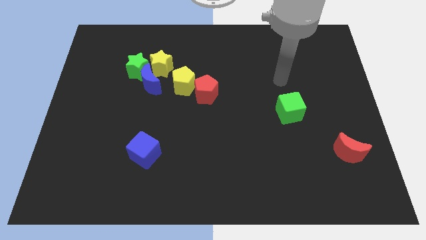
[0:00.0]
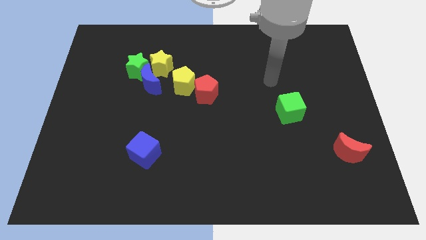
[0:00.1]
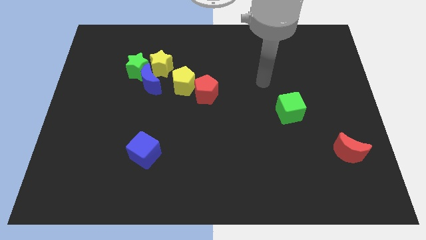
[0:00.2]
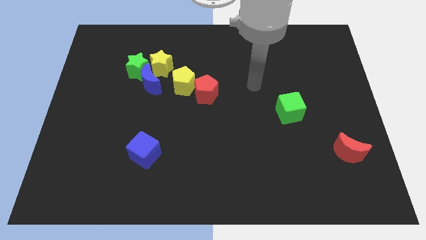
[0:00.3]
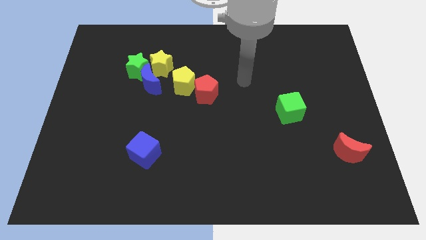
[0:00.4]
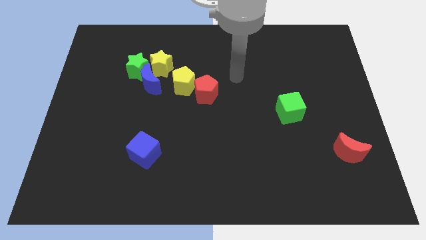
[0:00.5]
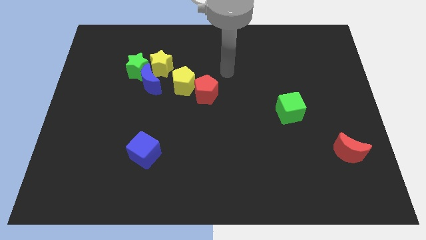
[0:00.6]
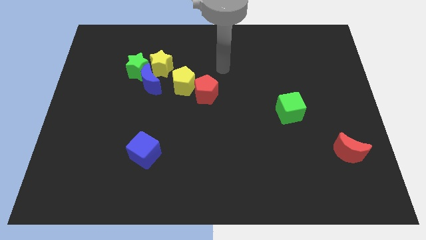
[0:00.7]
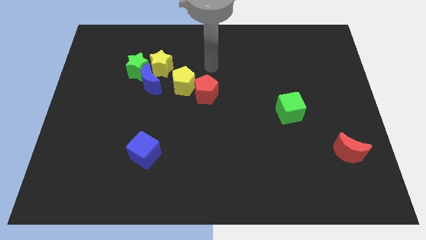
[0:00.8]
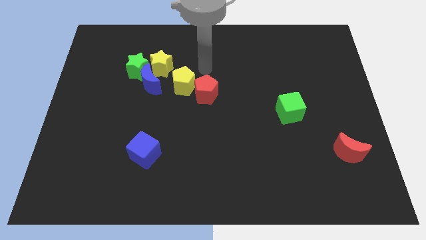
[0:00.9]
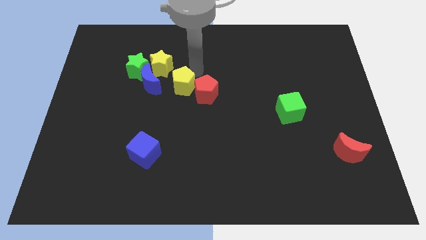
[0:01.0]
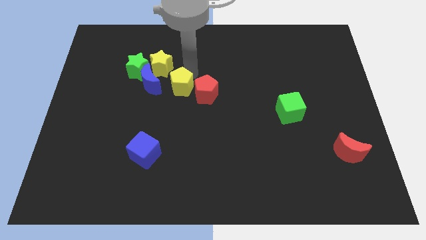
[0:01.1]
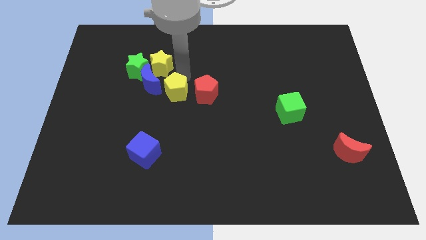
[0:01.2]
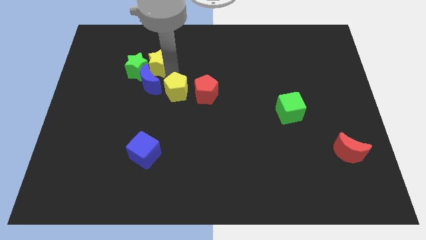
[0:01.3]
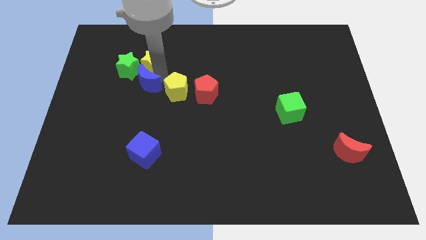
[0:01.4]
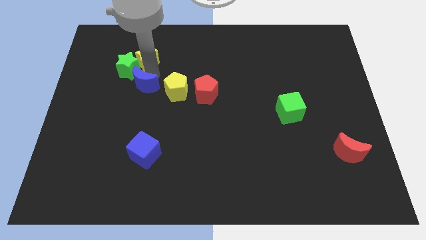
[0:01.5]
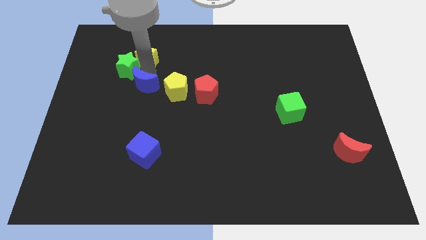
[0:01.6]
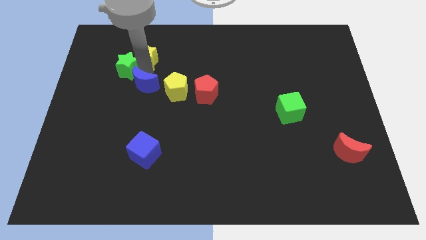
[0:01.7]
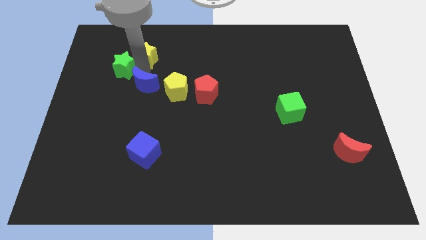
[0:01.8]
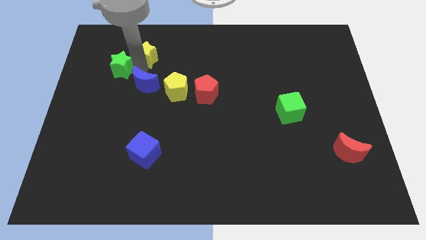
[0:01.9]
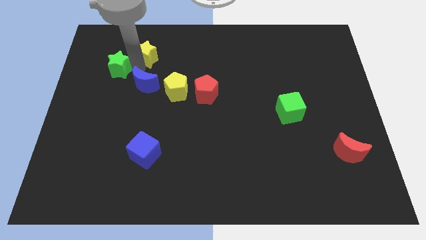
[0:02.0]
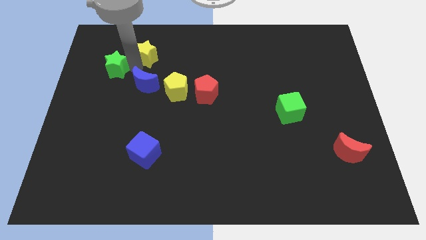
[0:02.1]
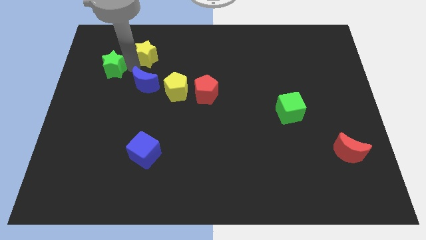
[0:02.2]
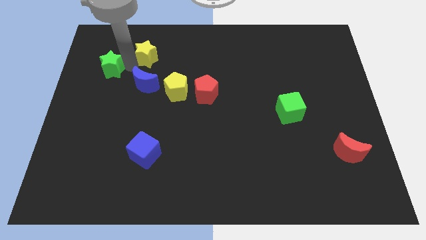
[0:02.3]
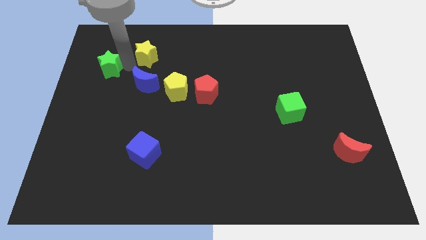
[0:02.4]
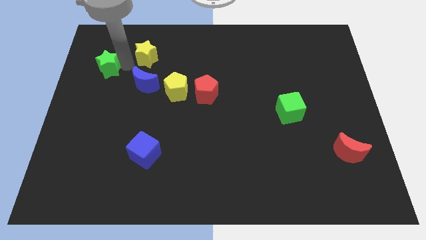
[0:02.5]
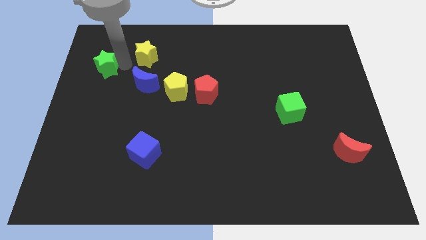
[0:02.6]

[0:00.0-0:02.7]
separate the green star from the blue moon and yellow star

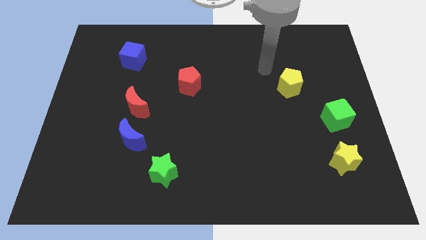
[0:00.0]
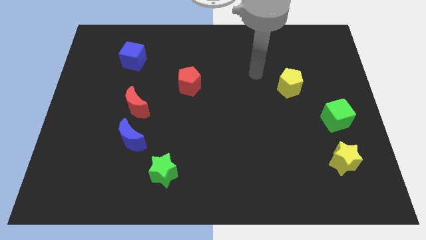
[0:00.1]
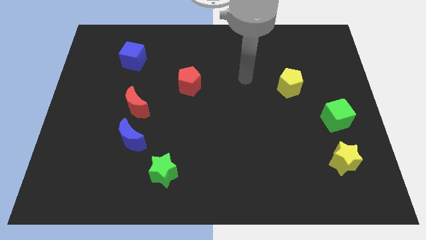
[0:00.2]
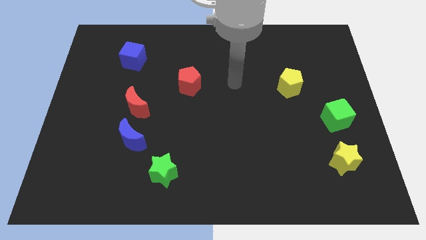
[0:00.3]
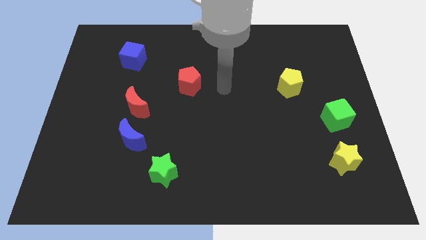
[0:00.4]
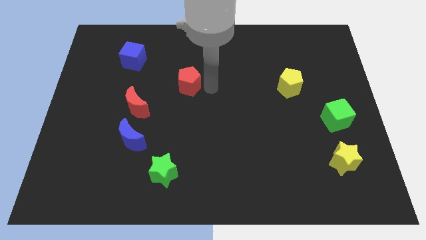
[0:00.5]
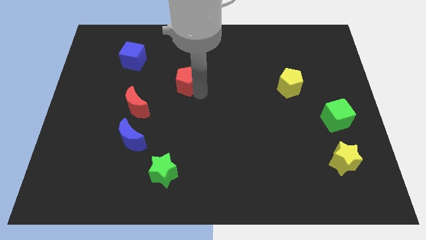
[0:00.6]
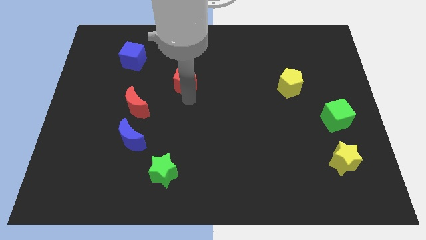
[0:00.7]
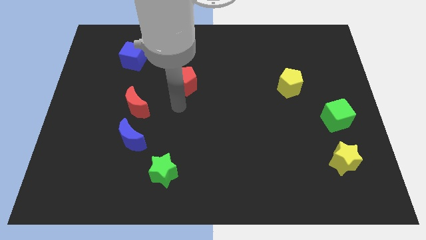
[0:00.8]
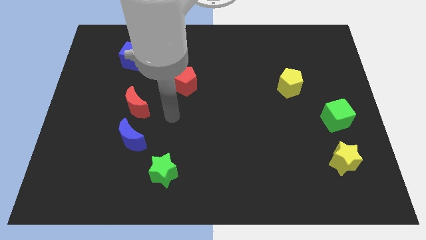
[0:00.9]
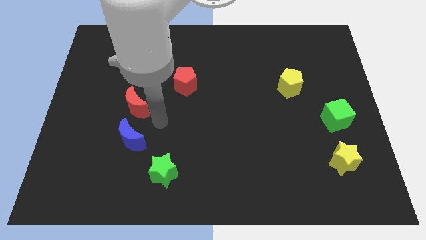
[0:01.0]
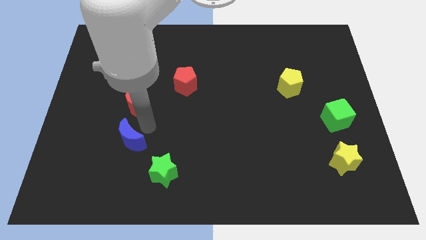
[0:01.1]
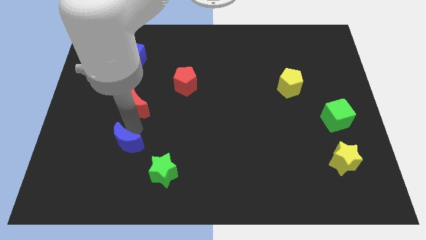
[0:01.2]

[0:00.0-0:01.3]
separate the red moon from the blue moon

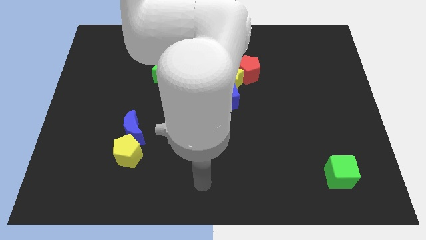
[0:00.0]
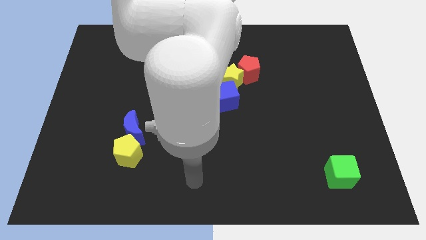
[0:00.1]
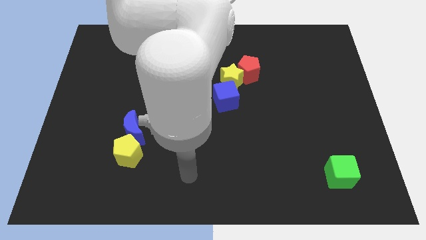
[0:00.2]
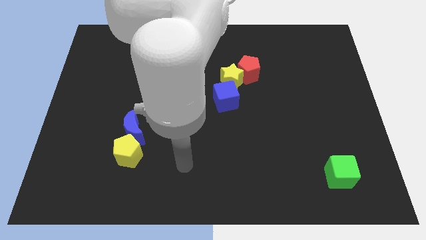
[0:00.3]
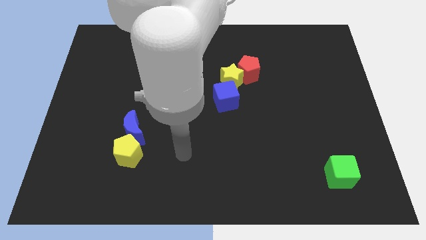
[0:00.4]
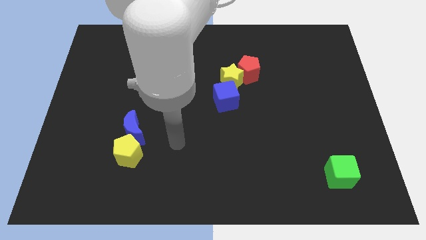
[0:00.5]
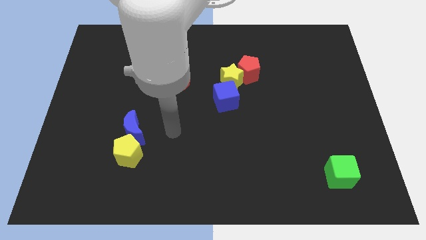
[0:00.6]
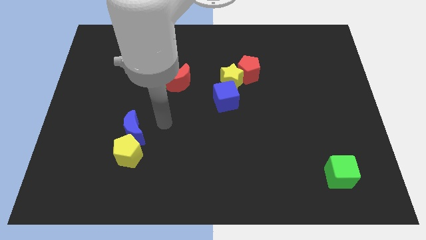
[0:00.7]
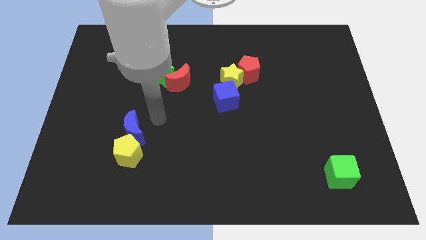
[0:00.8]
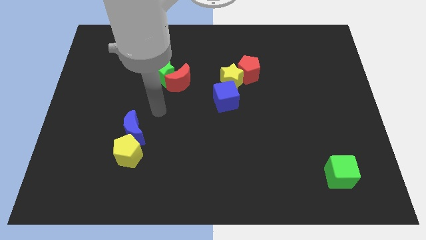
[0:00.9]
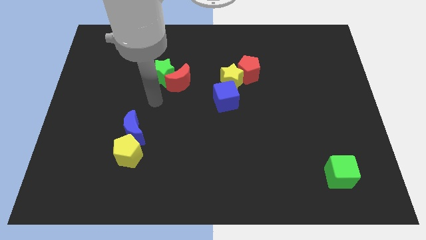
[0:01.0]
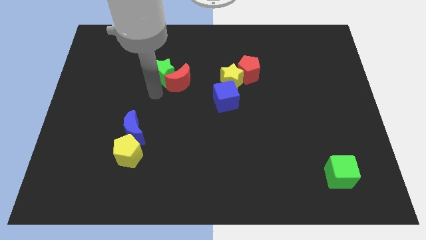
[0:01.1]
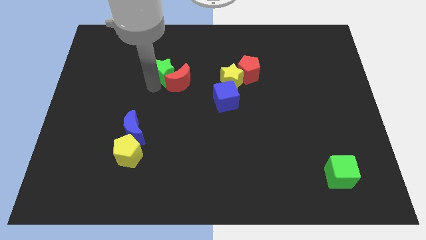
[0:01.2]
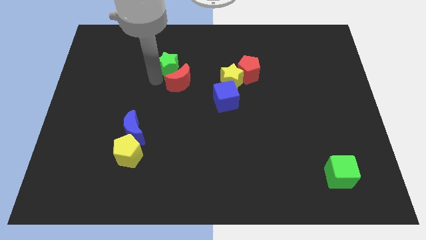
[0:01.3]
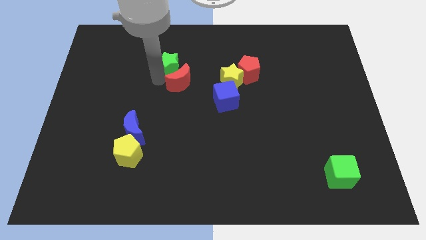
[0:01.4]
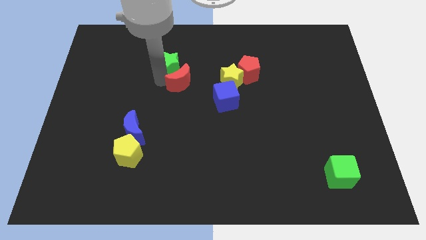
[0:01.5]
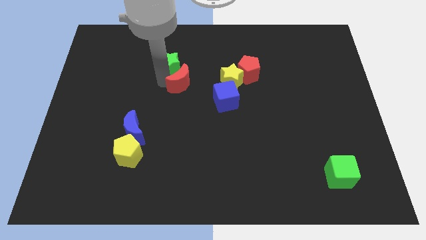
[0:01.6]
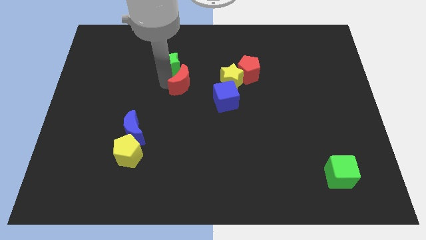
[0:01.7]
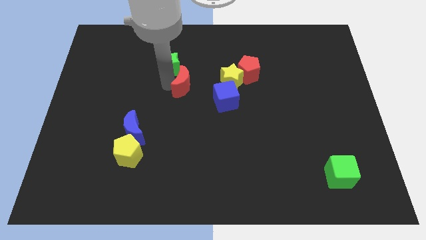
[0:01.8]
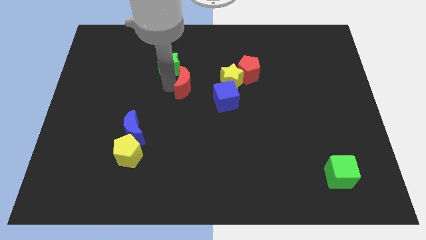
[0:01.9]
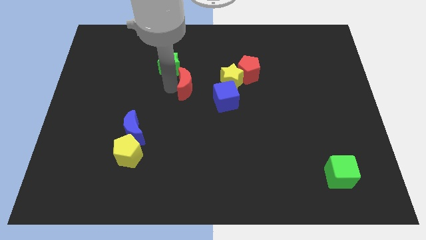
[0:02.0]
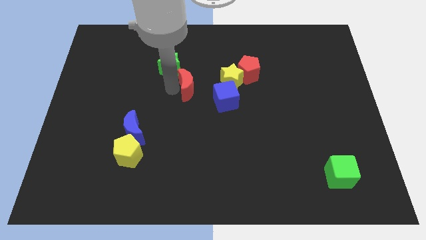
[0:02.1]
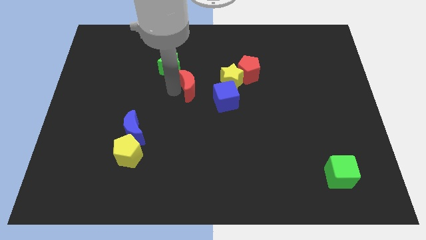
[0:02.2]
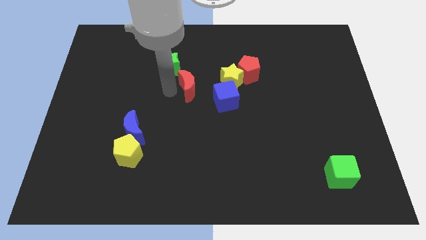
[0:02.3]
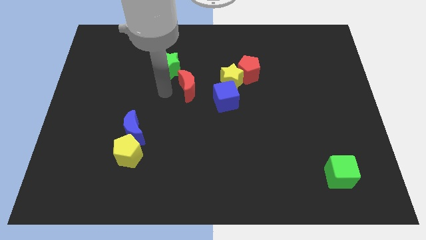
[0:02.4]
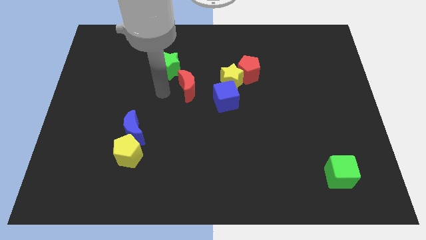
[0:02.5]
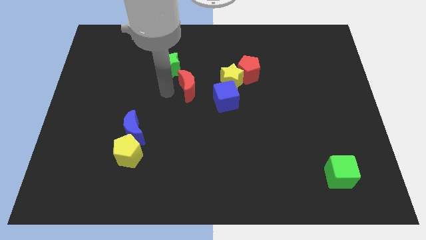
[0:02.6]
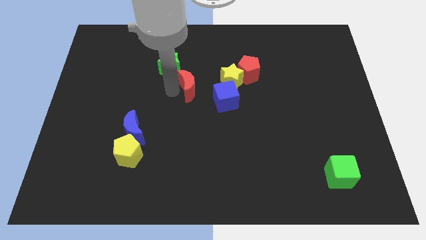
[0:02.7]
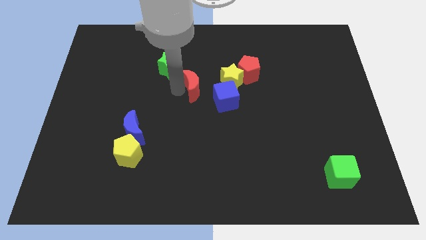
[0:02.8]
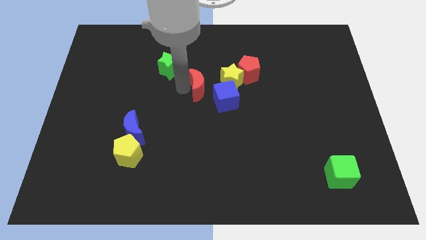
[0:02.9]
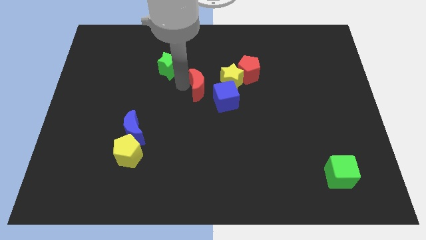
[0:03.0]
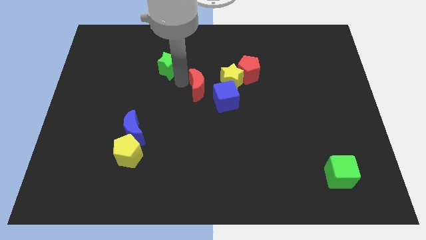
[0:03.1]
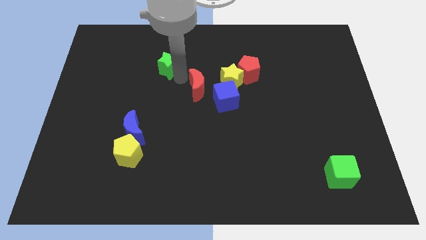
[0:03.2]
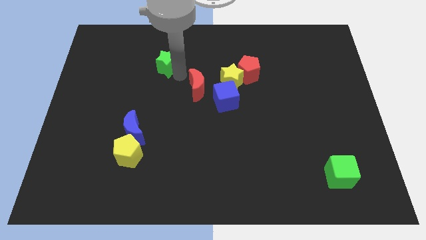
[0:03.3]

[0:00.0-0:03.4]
pull the red moon apart from the green star

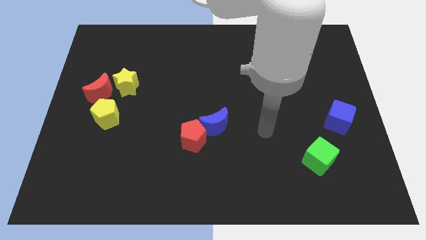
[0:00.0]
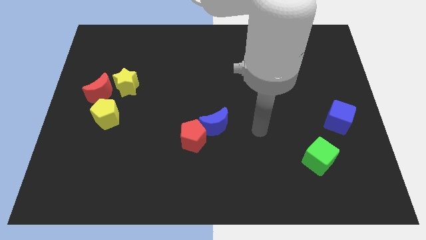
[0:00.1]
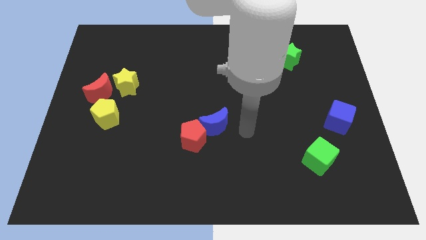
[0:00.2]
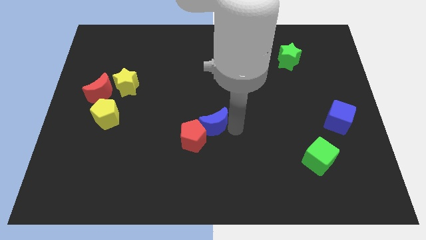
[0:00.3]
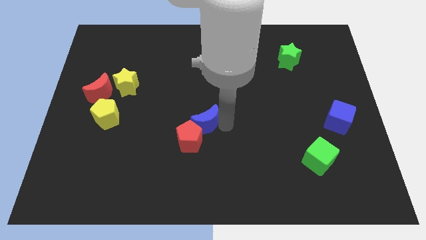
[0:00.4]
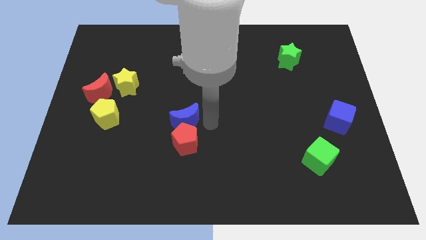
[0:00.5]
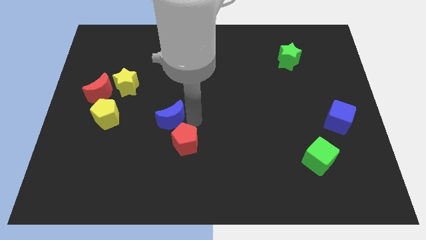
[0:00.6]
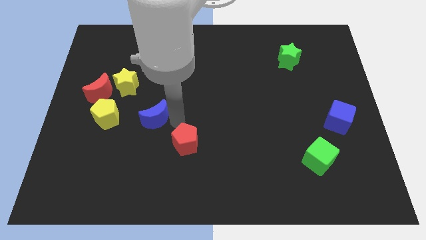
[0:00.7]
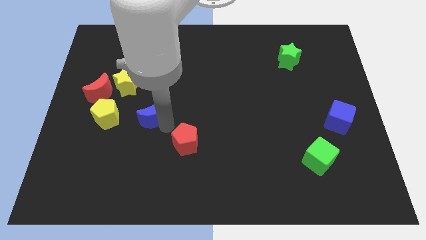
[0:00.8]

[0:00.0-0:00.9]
pull the red pentagon apart from the blue moon

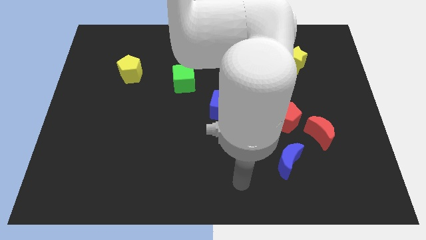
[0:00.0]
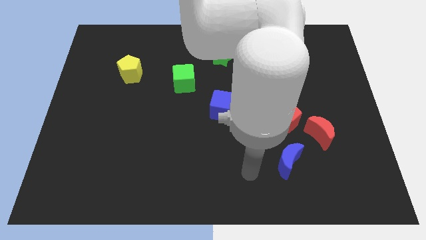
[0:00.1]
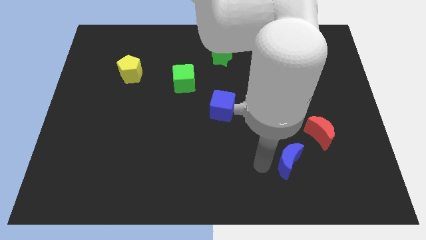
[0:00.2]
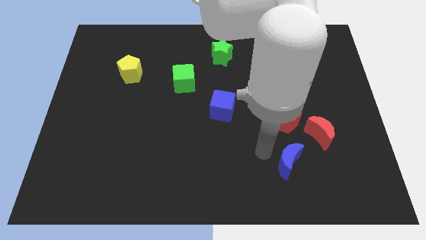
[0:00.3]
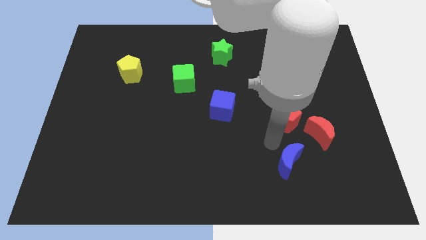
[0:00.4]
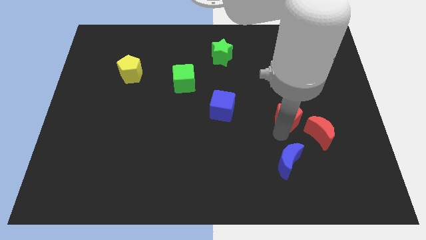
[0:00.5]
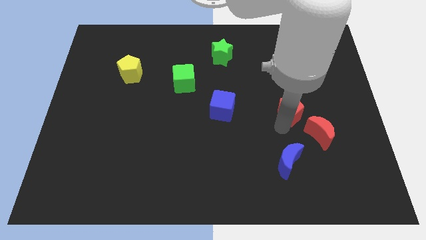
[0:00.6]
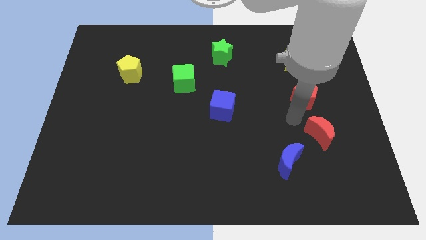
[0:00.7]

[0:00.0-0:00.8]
separate the red moon from the red pentagon

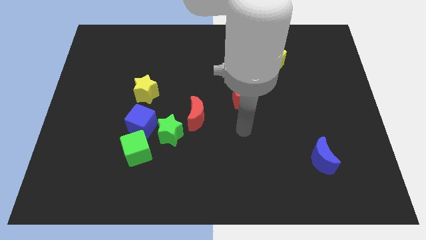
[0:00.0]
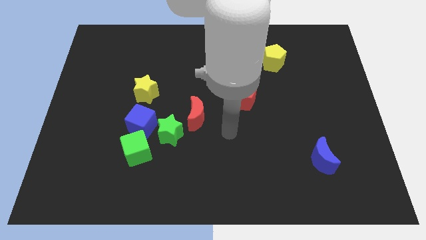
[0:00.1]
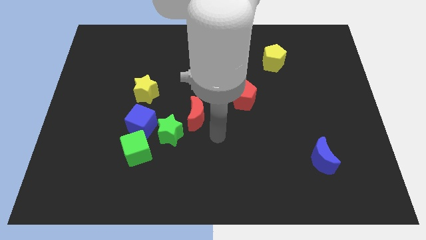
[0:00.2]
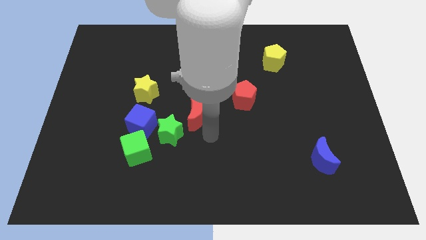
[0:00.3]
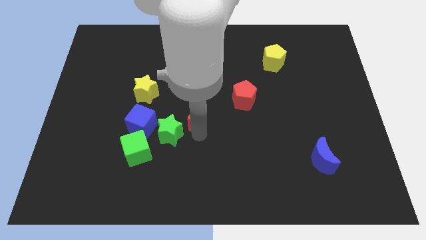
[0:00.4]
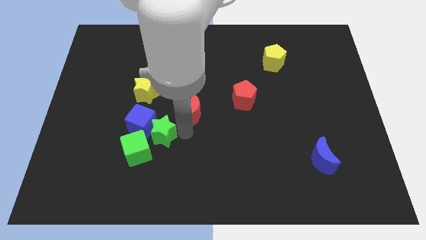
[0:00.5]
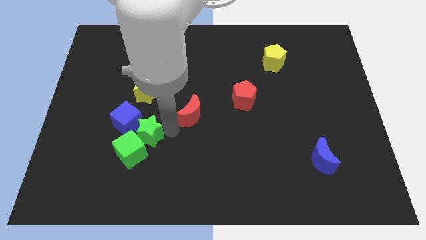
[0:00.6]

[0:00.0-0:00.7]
move the red moon away from the green star